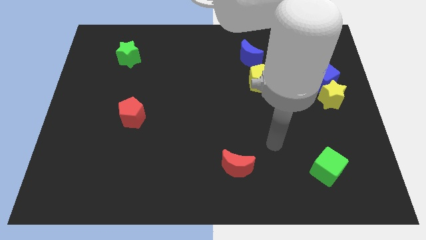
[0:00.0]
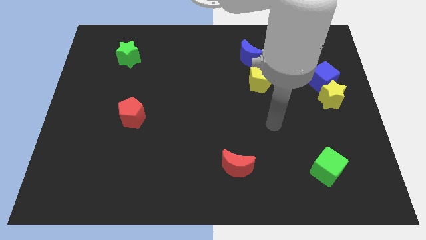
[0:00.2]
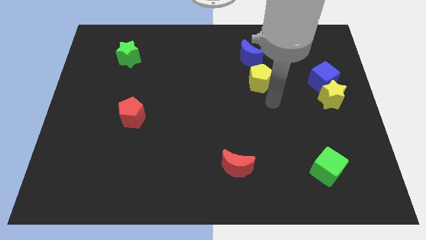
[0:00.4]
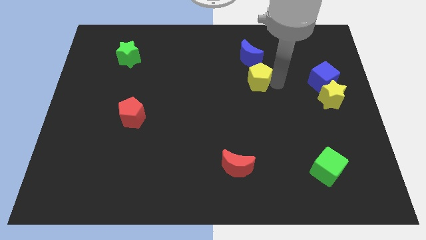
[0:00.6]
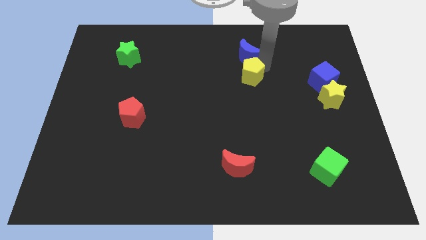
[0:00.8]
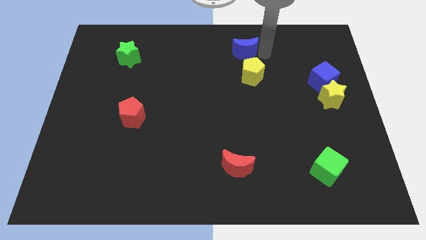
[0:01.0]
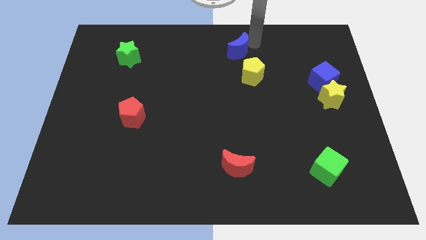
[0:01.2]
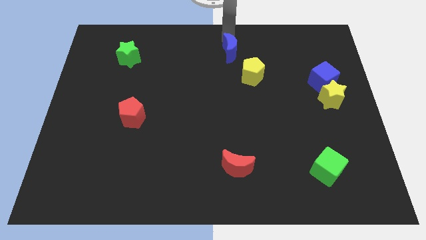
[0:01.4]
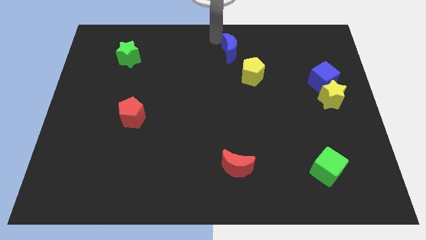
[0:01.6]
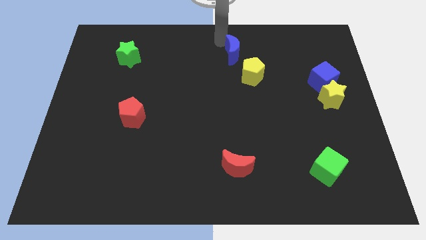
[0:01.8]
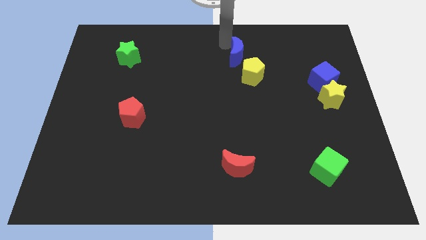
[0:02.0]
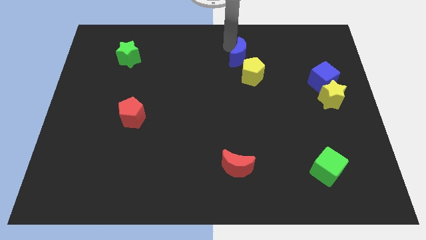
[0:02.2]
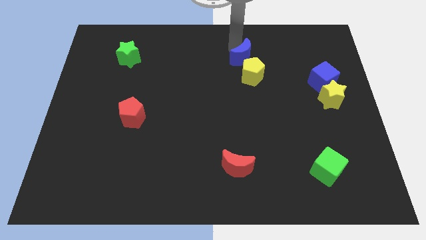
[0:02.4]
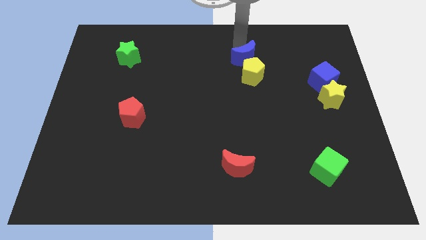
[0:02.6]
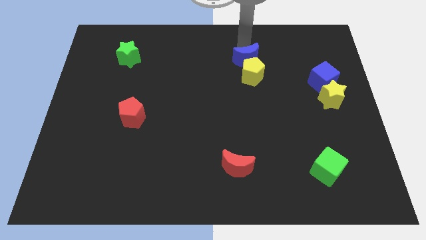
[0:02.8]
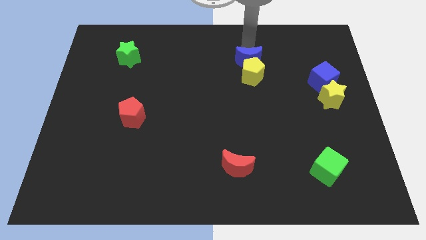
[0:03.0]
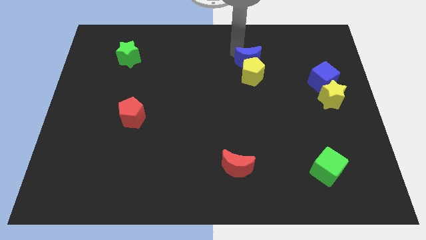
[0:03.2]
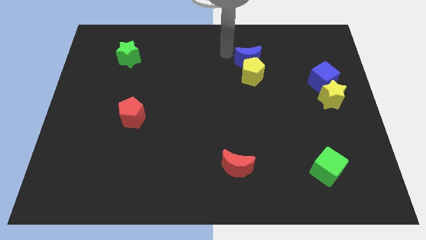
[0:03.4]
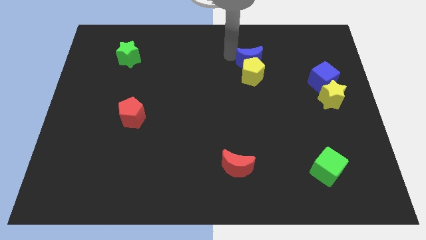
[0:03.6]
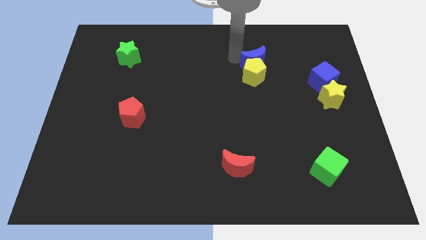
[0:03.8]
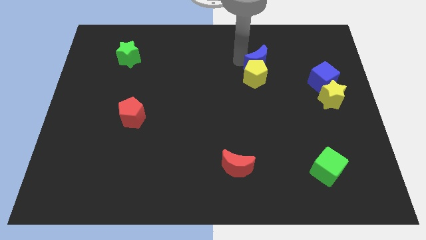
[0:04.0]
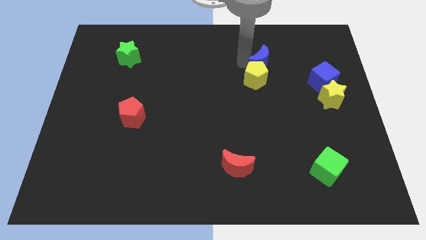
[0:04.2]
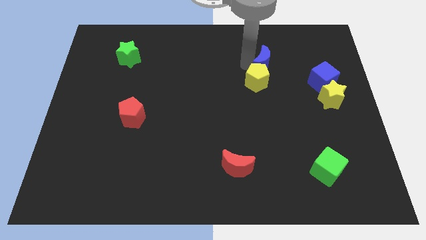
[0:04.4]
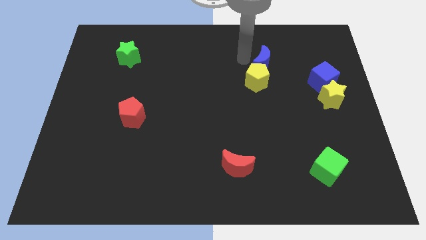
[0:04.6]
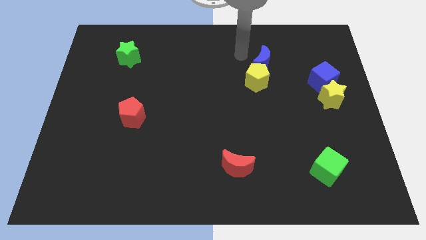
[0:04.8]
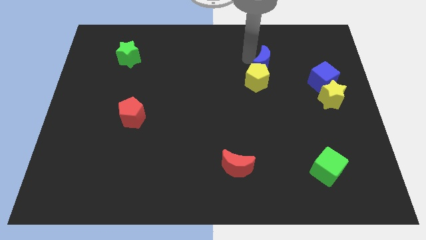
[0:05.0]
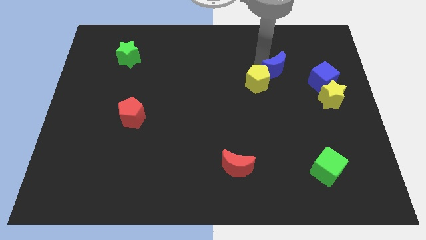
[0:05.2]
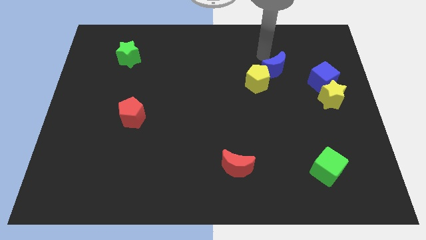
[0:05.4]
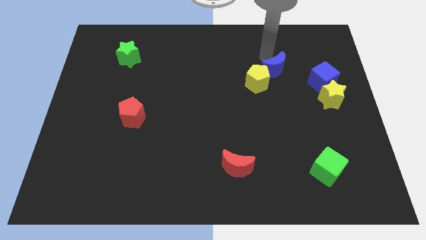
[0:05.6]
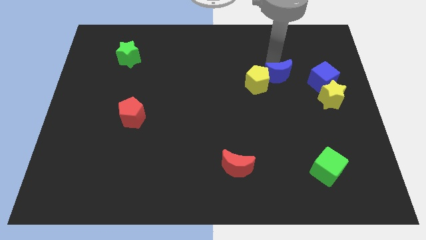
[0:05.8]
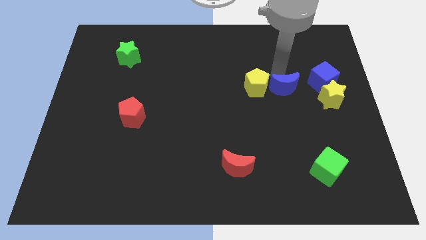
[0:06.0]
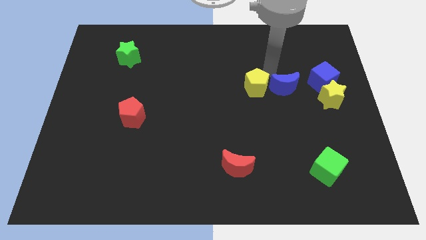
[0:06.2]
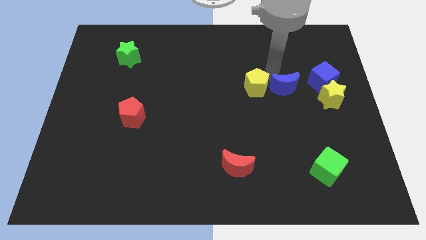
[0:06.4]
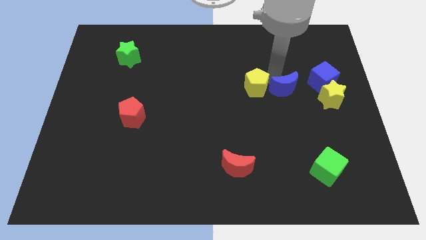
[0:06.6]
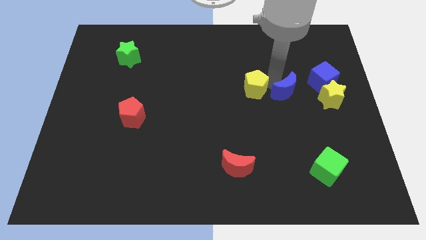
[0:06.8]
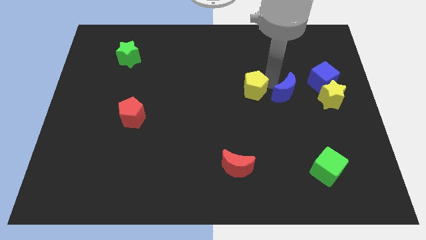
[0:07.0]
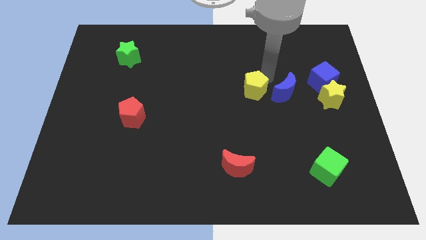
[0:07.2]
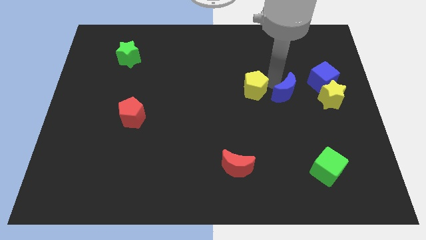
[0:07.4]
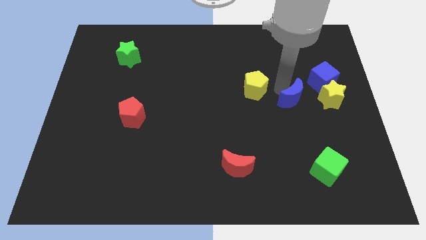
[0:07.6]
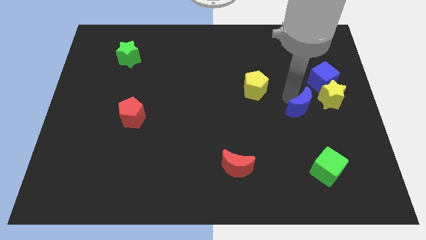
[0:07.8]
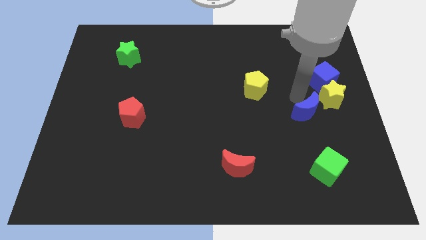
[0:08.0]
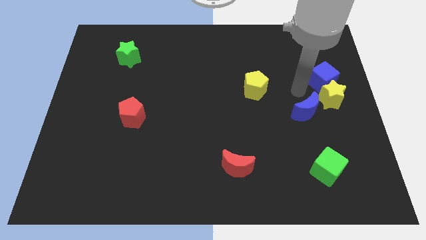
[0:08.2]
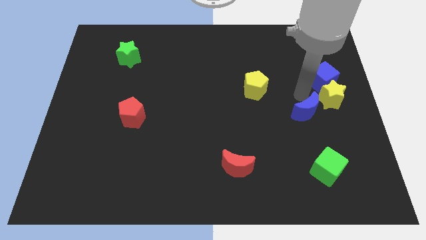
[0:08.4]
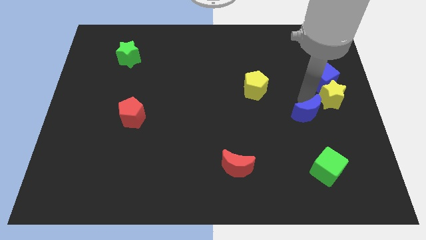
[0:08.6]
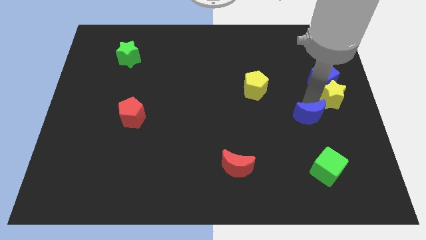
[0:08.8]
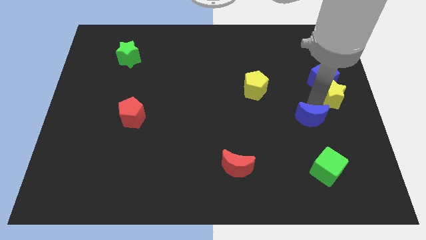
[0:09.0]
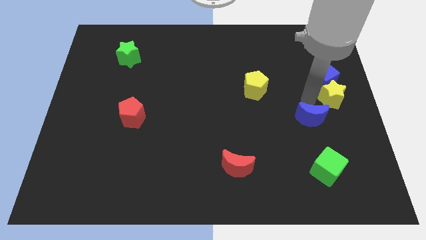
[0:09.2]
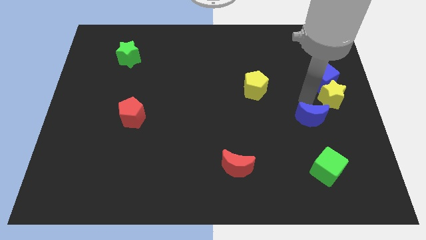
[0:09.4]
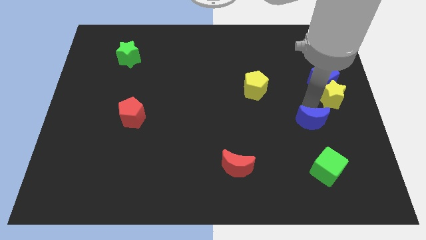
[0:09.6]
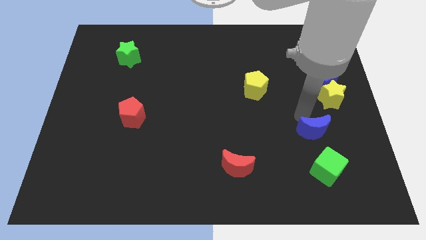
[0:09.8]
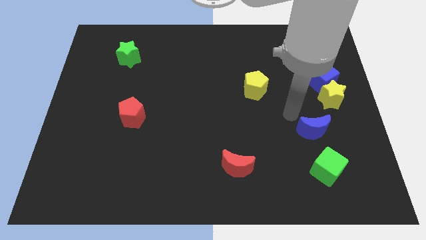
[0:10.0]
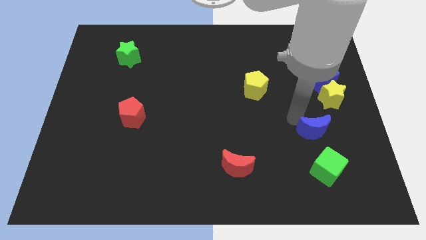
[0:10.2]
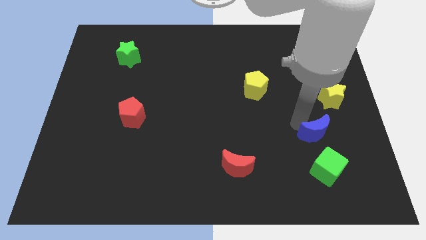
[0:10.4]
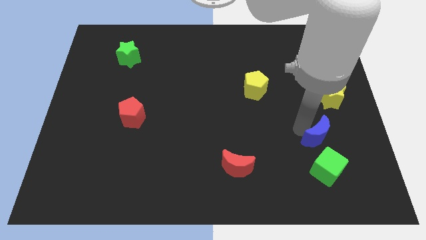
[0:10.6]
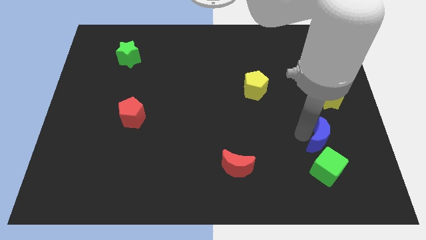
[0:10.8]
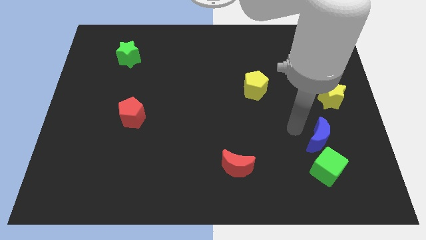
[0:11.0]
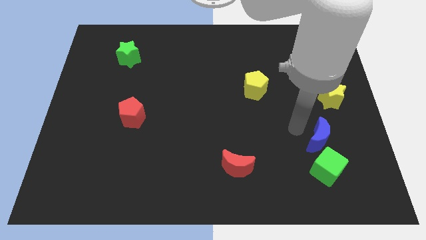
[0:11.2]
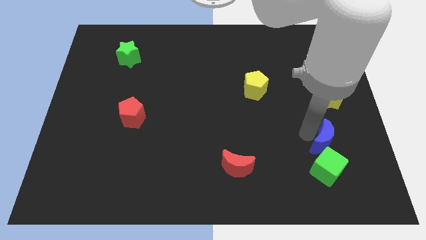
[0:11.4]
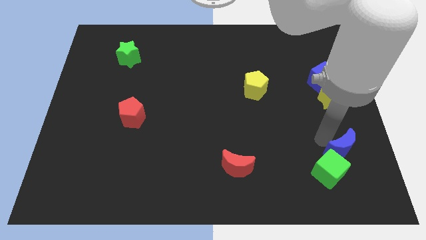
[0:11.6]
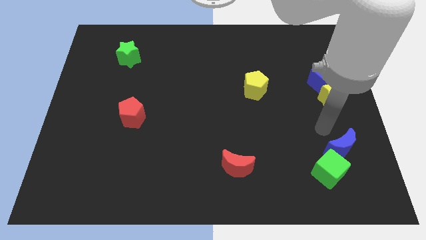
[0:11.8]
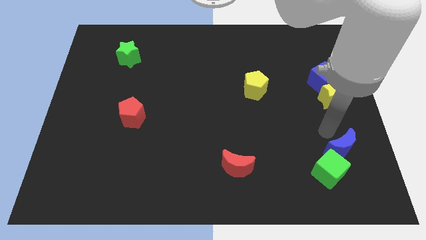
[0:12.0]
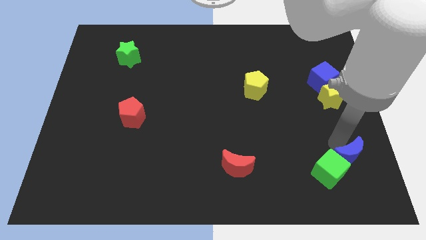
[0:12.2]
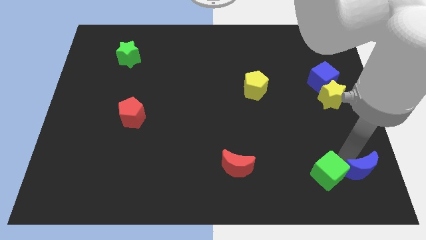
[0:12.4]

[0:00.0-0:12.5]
put the blue moon to the lower right corner

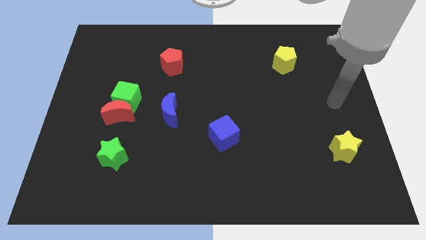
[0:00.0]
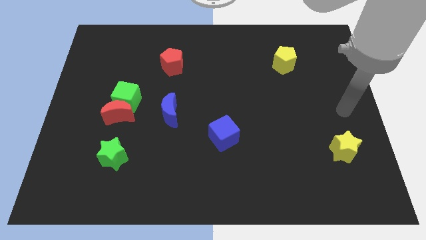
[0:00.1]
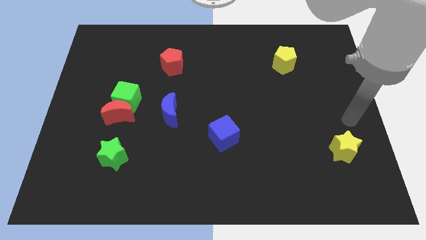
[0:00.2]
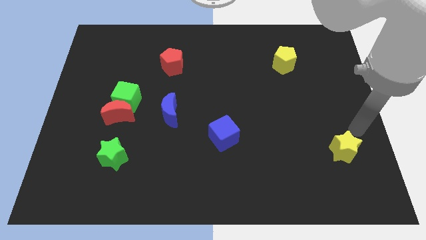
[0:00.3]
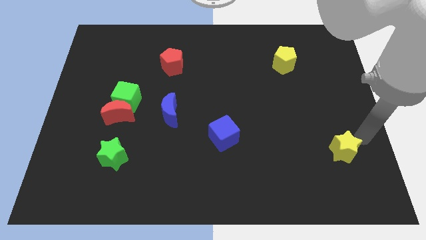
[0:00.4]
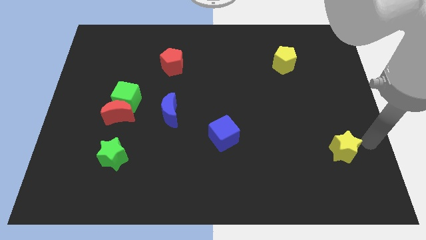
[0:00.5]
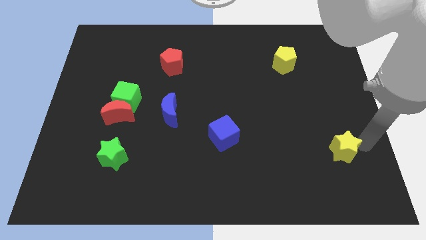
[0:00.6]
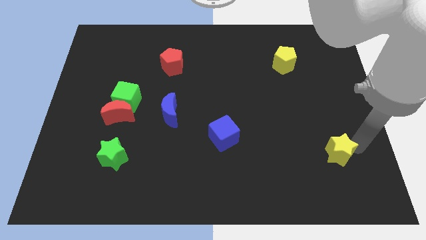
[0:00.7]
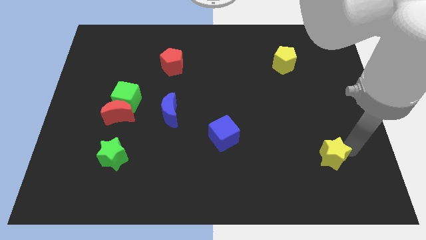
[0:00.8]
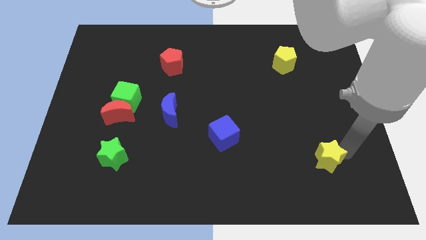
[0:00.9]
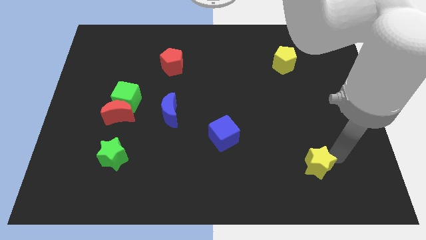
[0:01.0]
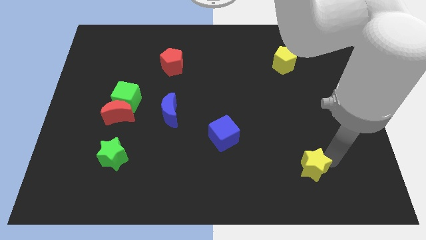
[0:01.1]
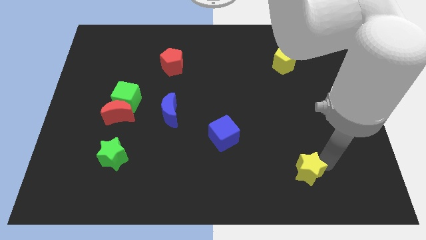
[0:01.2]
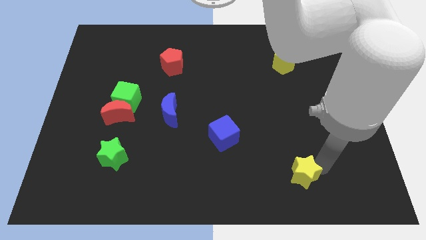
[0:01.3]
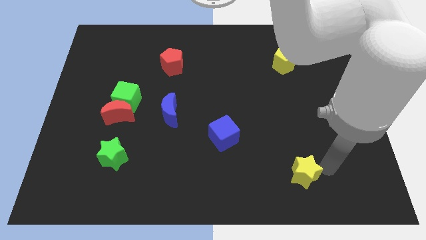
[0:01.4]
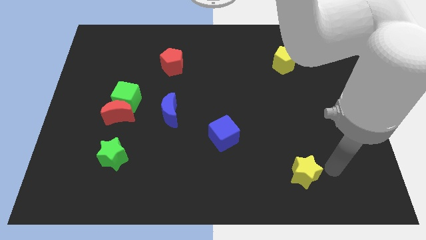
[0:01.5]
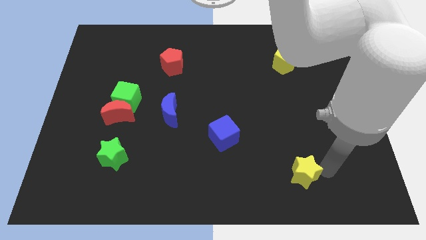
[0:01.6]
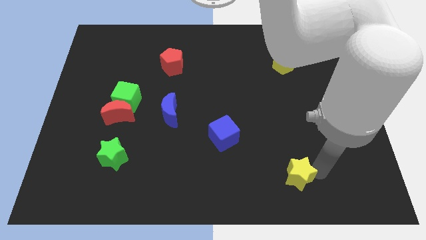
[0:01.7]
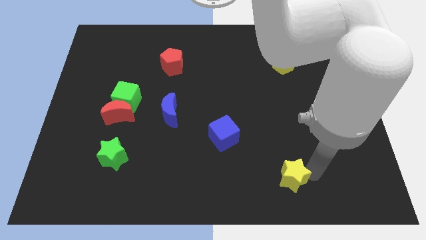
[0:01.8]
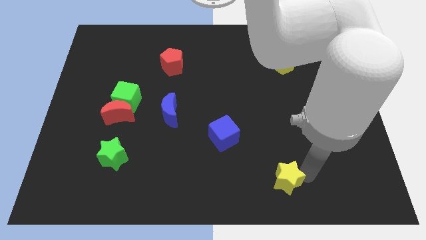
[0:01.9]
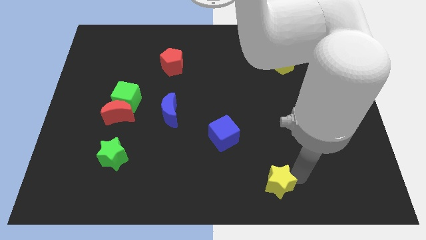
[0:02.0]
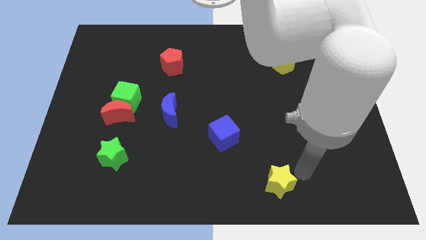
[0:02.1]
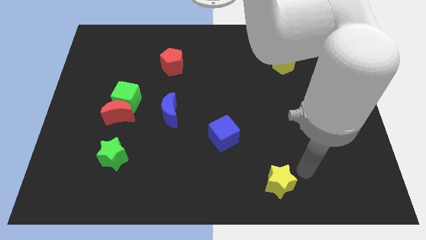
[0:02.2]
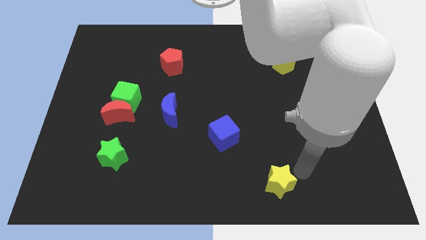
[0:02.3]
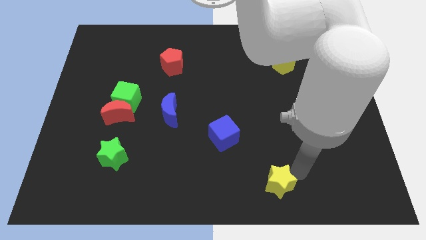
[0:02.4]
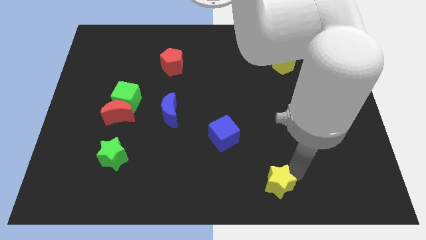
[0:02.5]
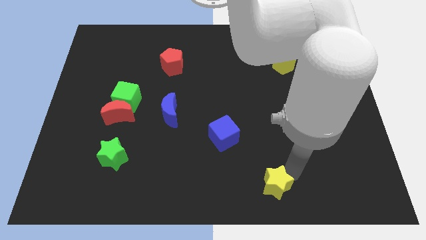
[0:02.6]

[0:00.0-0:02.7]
move the yellow star to the bottom
